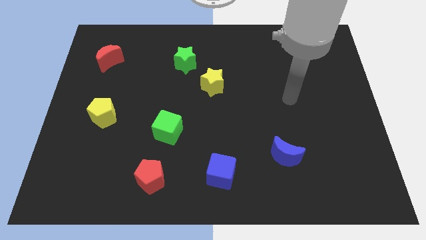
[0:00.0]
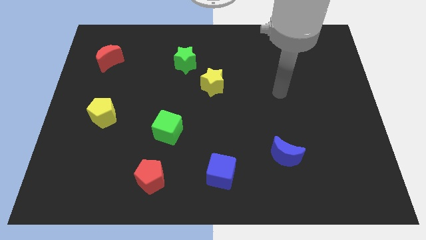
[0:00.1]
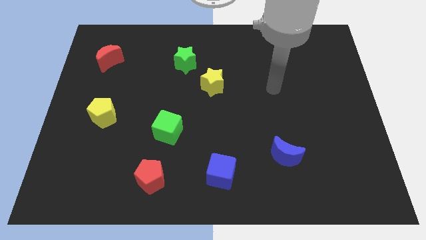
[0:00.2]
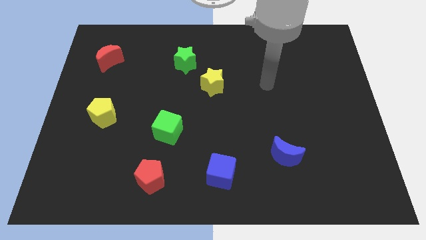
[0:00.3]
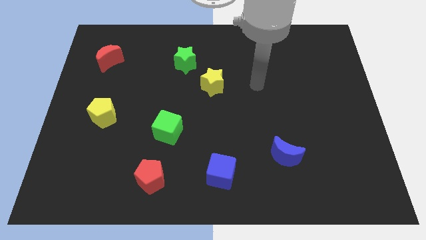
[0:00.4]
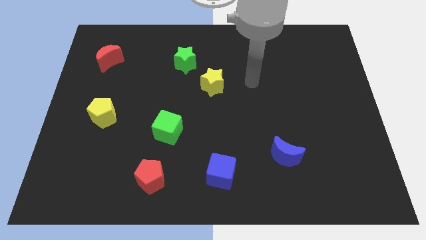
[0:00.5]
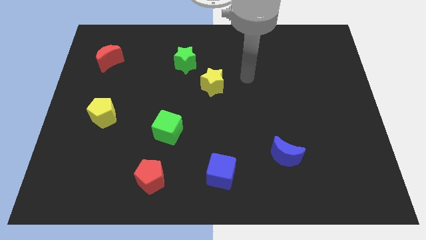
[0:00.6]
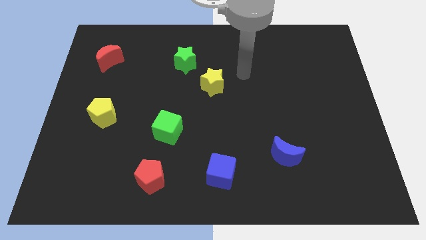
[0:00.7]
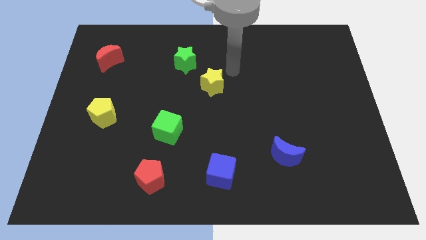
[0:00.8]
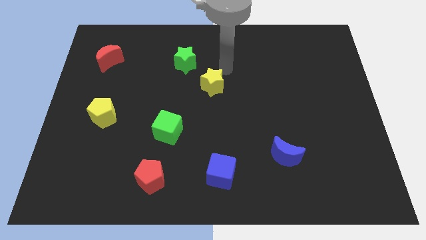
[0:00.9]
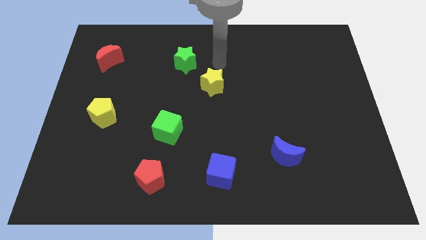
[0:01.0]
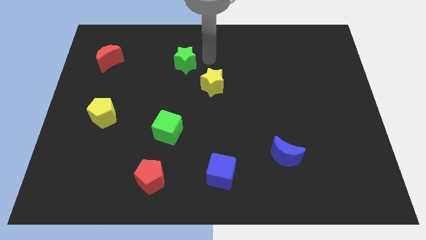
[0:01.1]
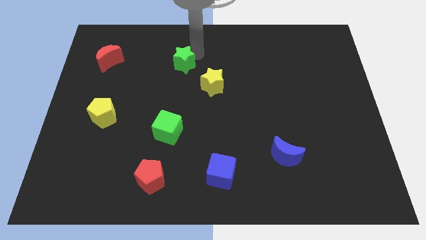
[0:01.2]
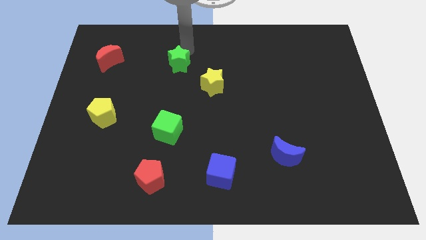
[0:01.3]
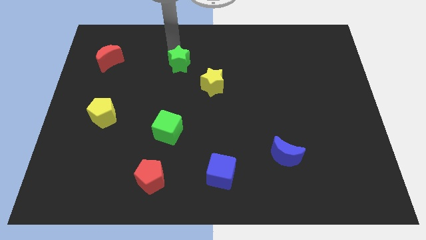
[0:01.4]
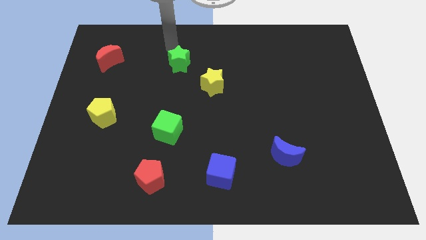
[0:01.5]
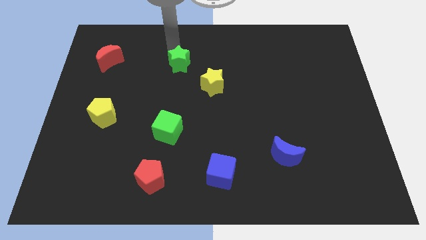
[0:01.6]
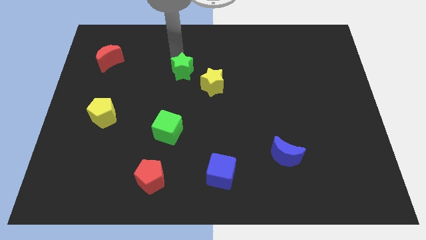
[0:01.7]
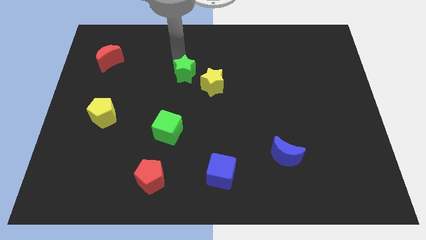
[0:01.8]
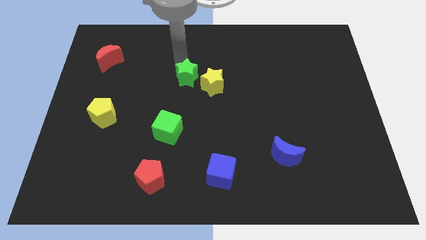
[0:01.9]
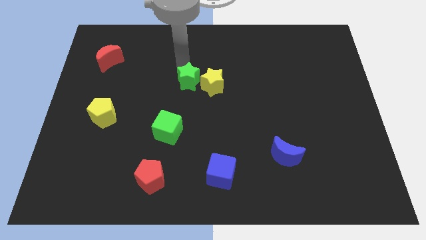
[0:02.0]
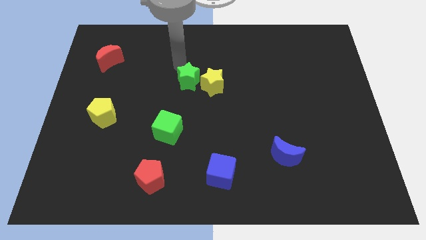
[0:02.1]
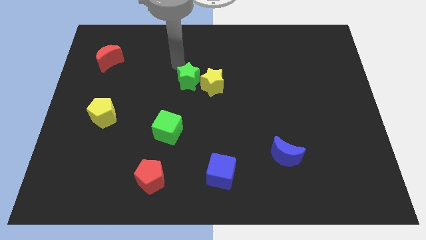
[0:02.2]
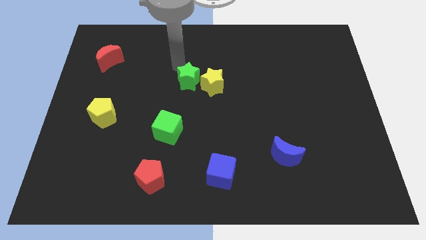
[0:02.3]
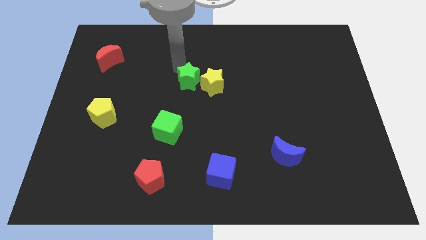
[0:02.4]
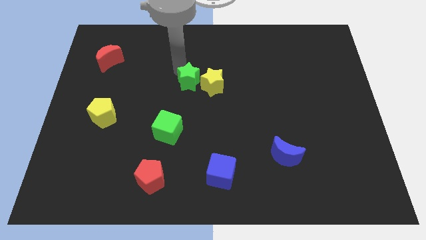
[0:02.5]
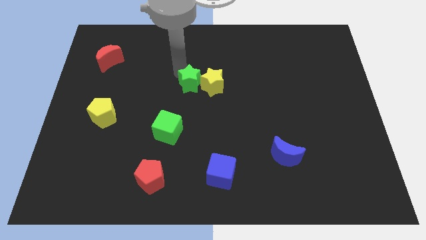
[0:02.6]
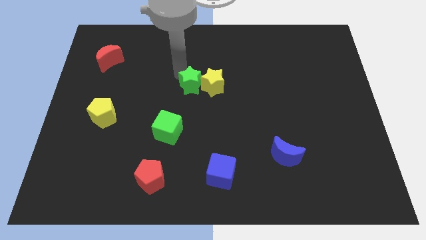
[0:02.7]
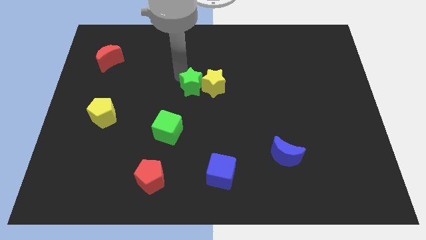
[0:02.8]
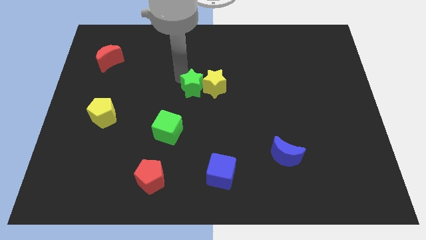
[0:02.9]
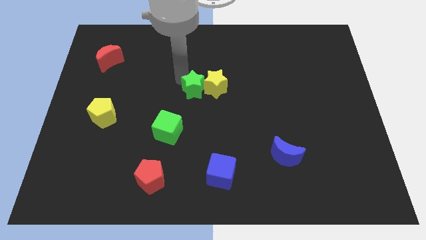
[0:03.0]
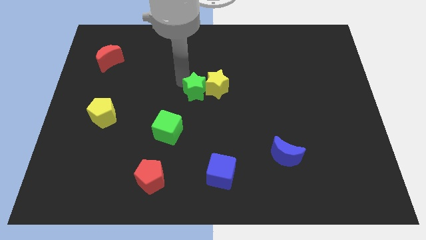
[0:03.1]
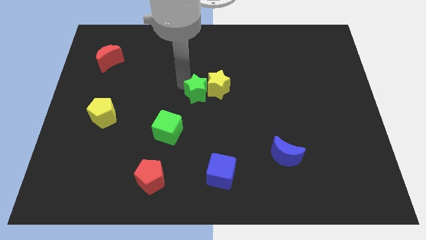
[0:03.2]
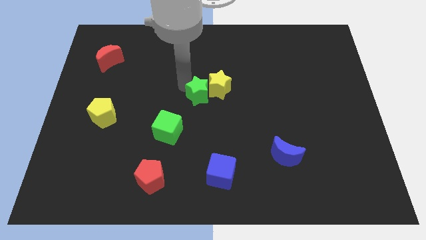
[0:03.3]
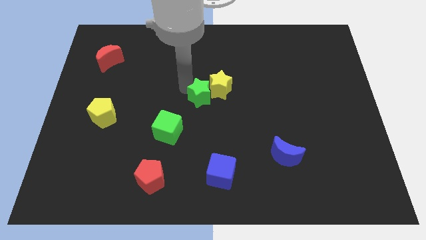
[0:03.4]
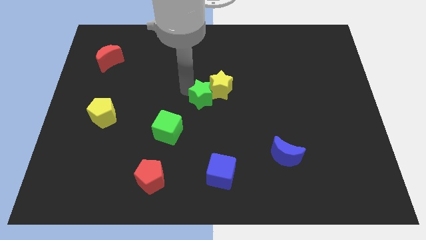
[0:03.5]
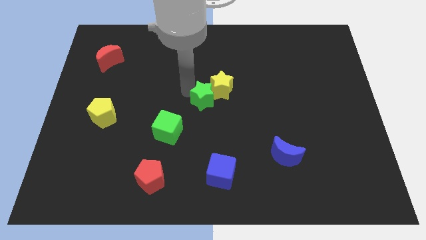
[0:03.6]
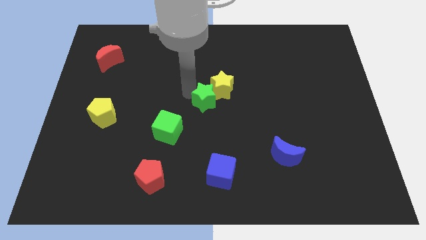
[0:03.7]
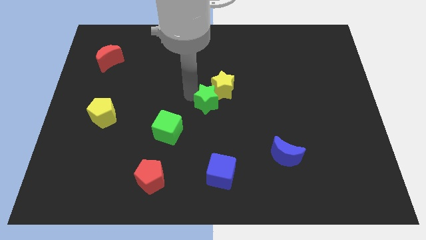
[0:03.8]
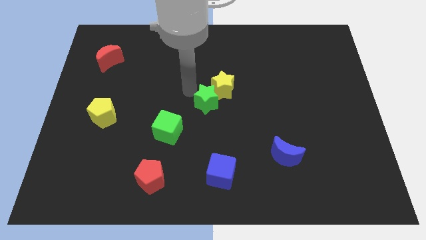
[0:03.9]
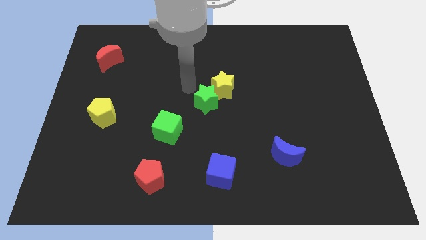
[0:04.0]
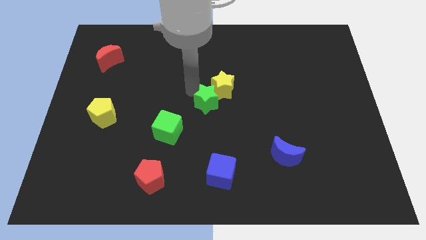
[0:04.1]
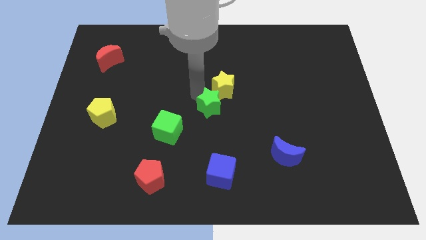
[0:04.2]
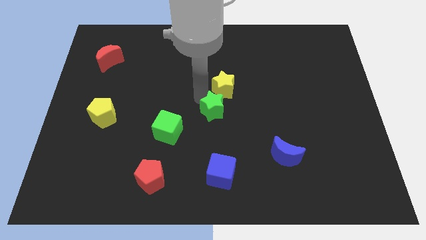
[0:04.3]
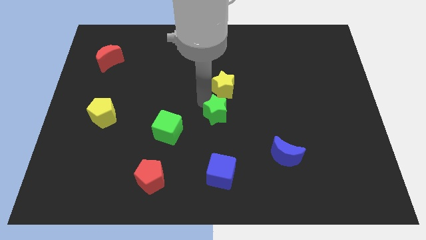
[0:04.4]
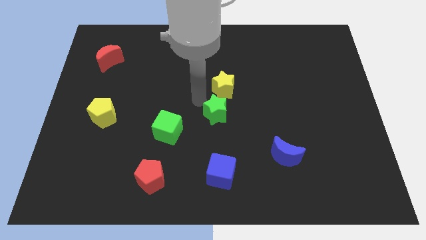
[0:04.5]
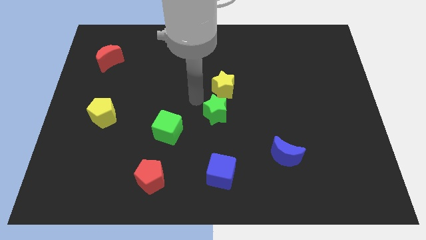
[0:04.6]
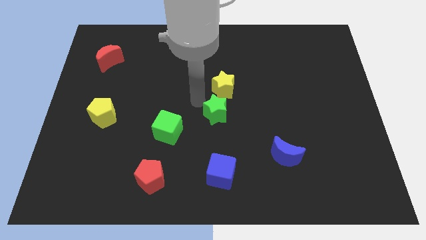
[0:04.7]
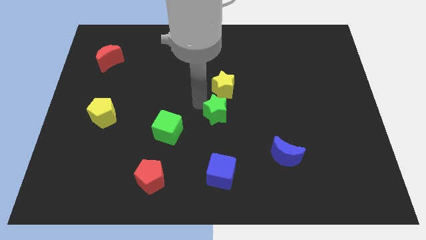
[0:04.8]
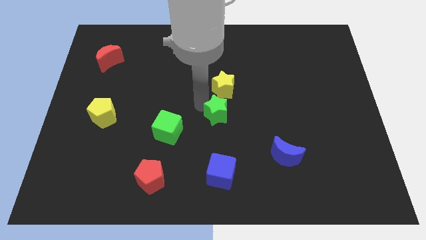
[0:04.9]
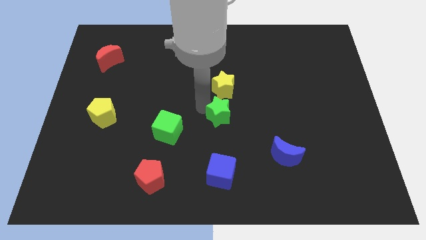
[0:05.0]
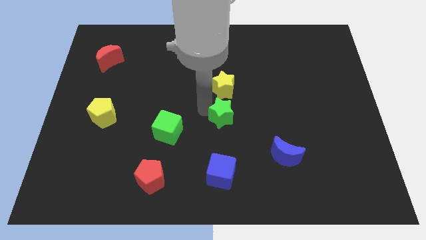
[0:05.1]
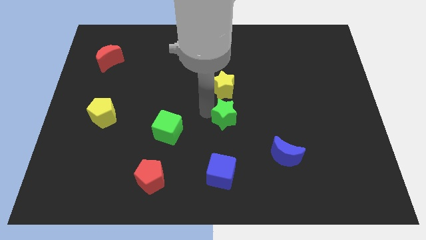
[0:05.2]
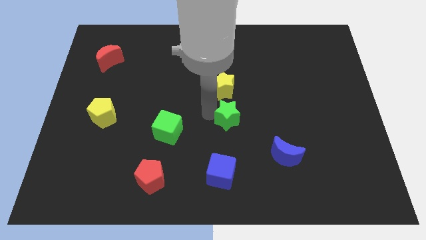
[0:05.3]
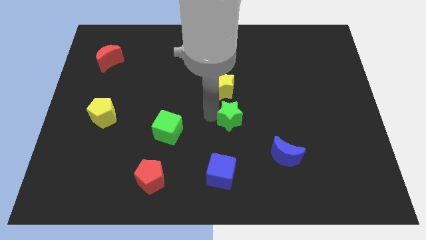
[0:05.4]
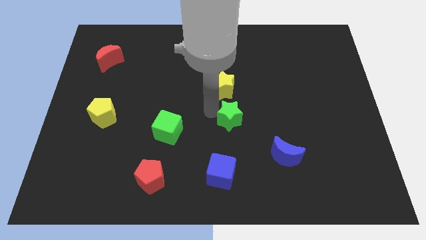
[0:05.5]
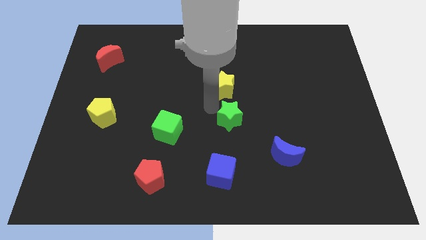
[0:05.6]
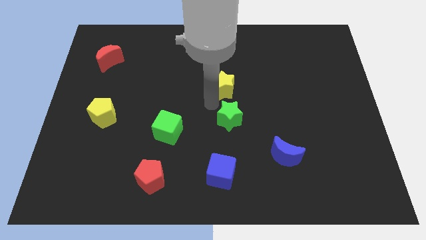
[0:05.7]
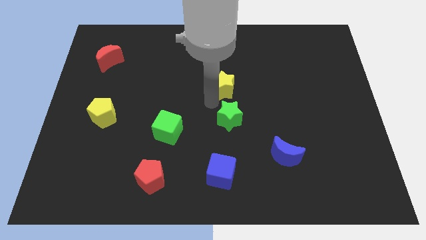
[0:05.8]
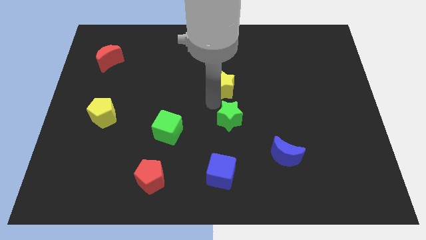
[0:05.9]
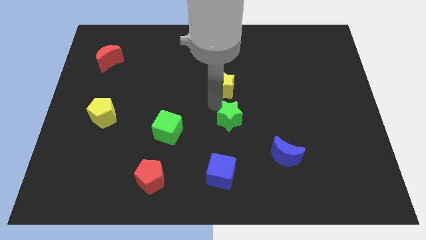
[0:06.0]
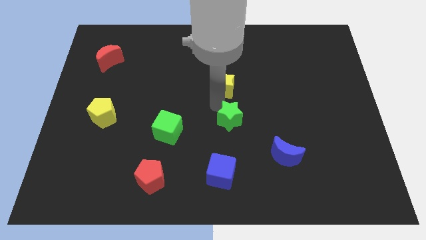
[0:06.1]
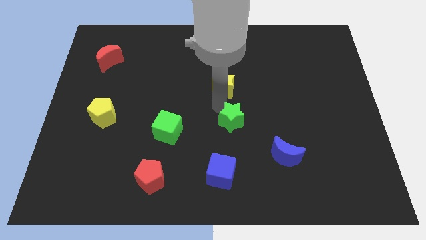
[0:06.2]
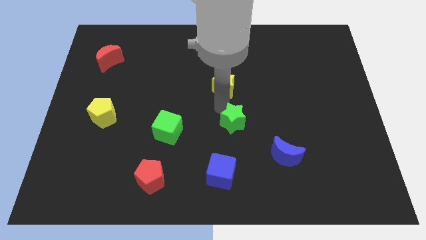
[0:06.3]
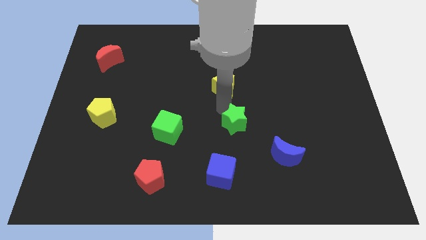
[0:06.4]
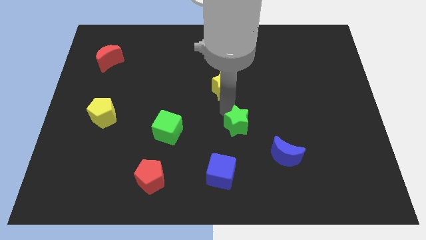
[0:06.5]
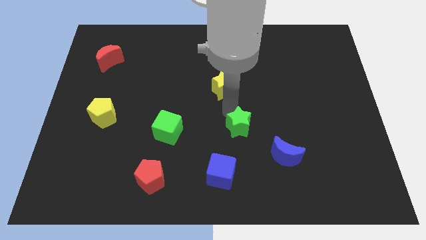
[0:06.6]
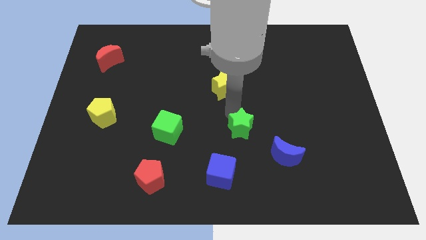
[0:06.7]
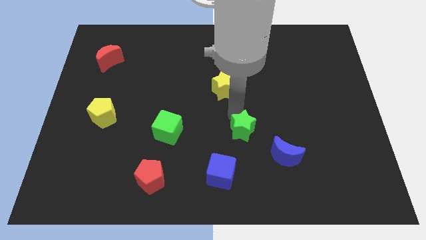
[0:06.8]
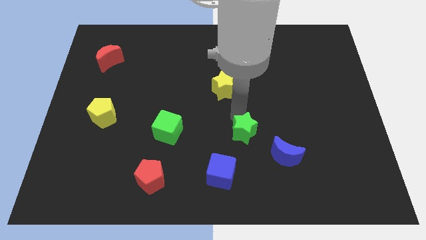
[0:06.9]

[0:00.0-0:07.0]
slide the green star to the top right side of the blue cube
